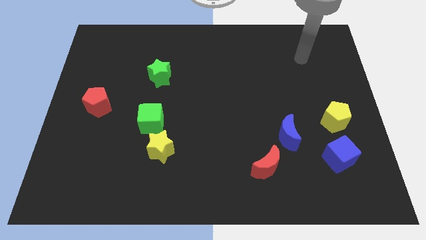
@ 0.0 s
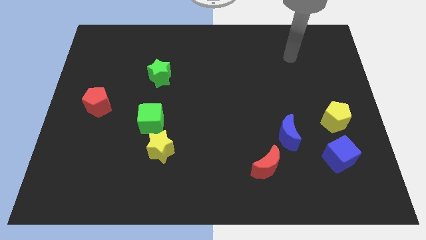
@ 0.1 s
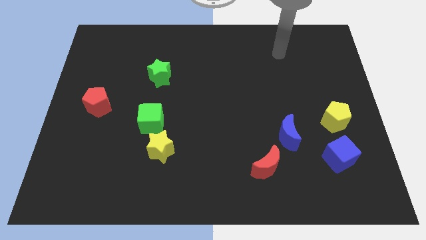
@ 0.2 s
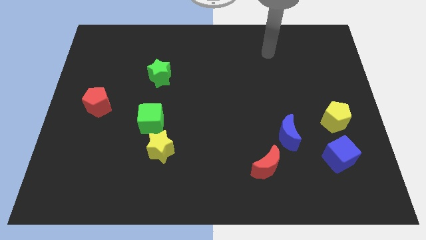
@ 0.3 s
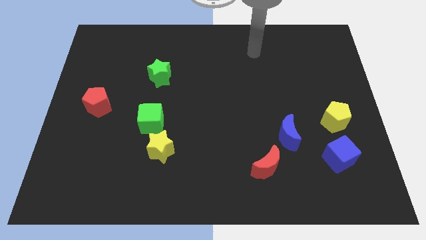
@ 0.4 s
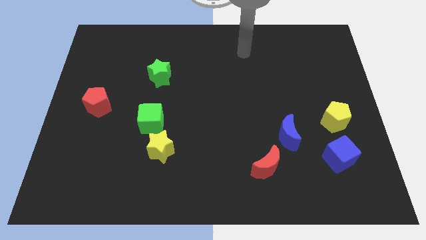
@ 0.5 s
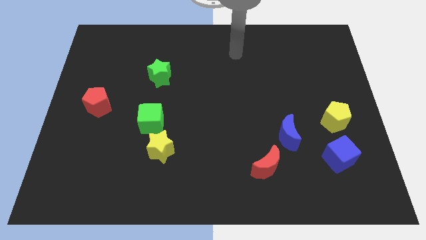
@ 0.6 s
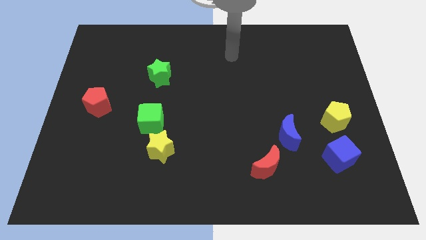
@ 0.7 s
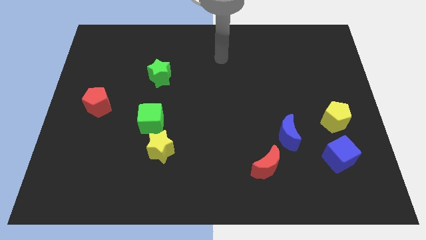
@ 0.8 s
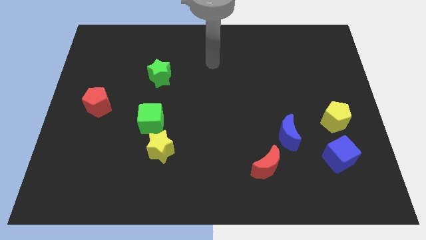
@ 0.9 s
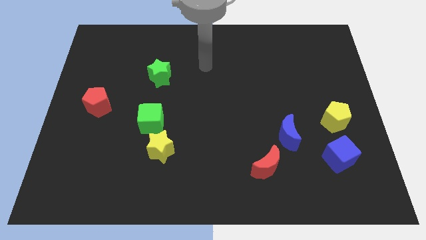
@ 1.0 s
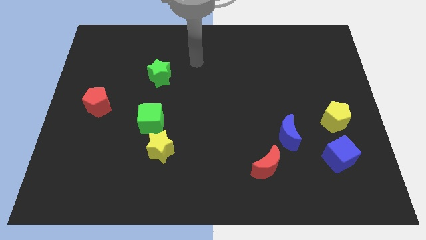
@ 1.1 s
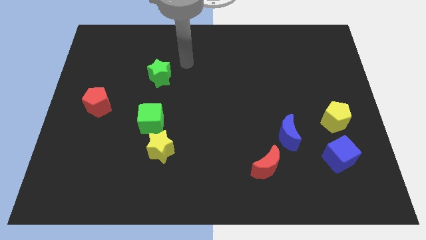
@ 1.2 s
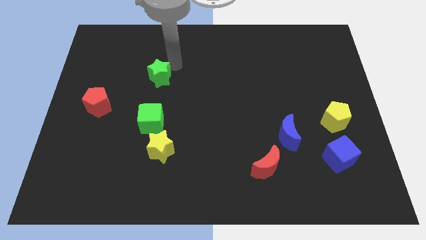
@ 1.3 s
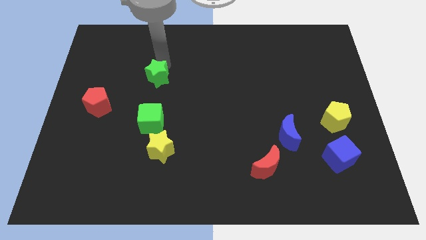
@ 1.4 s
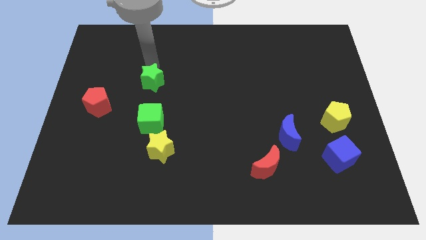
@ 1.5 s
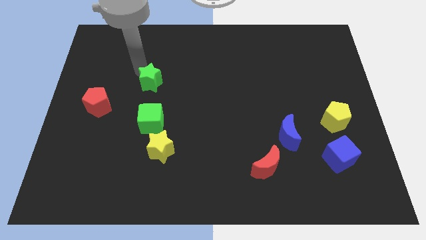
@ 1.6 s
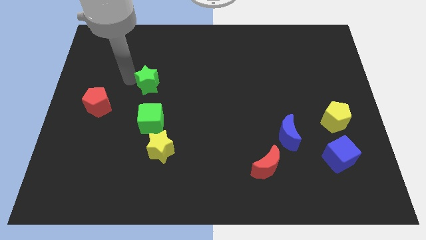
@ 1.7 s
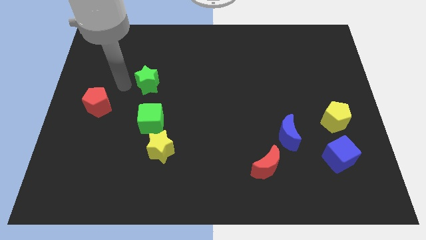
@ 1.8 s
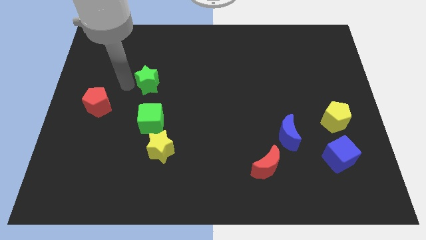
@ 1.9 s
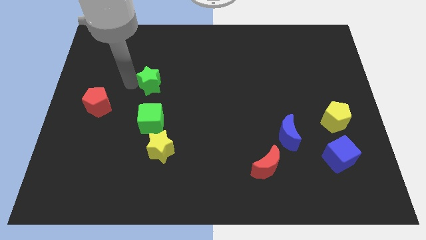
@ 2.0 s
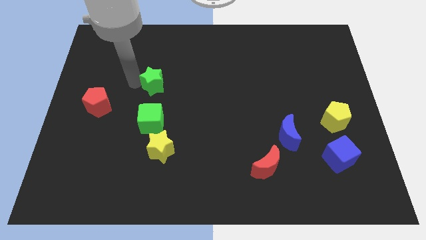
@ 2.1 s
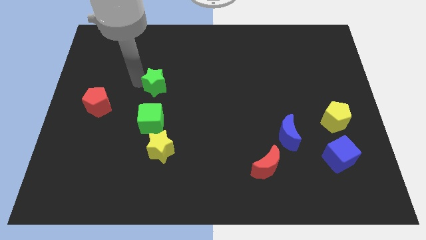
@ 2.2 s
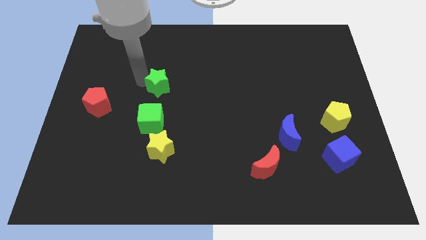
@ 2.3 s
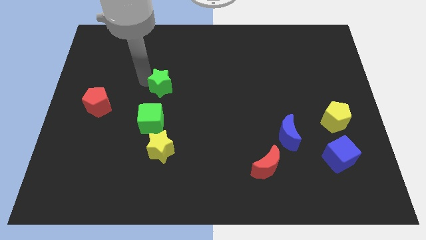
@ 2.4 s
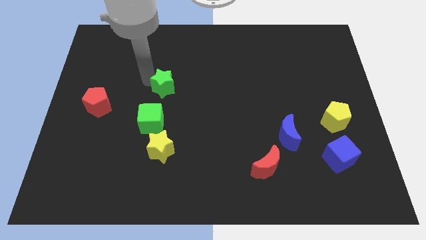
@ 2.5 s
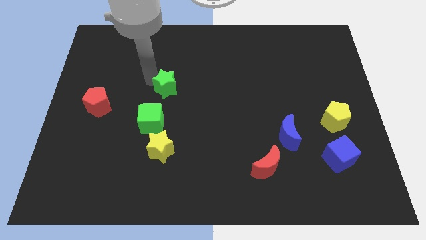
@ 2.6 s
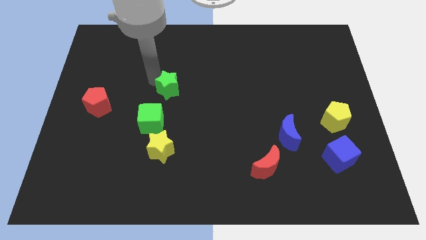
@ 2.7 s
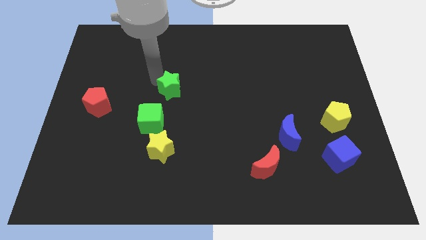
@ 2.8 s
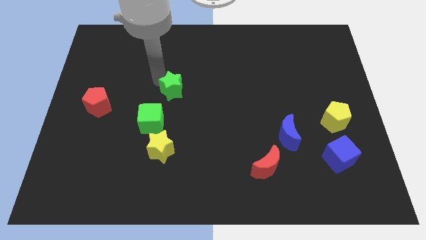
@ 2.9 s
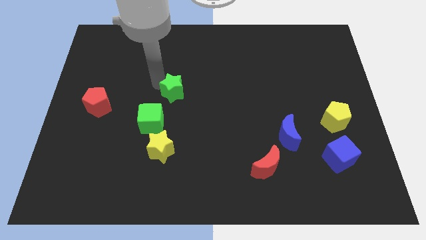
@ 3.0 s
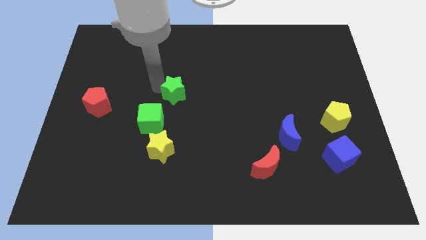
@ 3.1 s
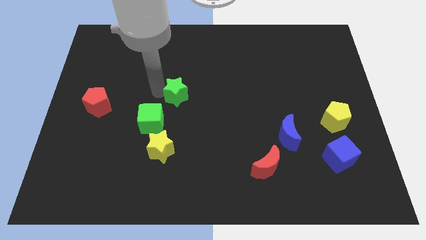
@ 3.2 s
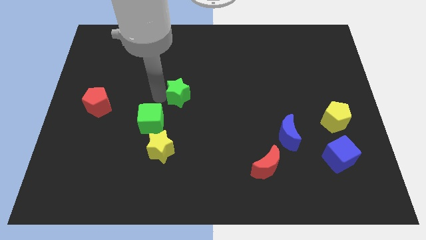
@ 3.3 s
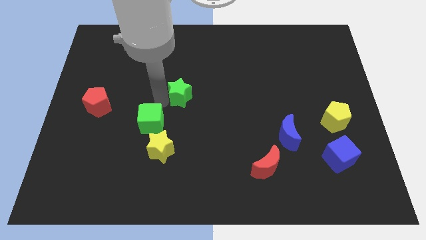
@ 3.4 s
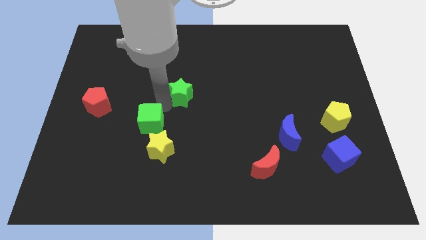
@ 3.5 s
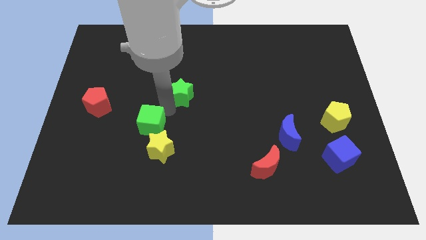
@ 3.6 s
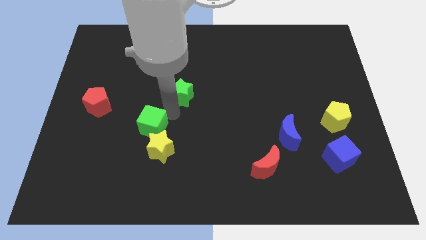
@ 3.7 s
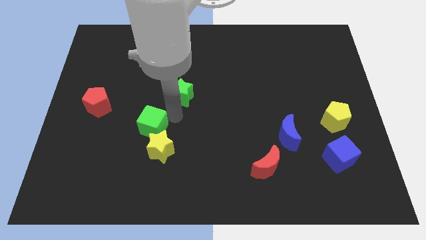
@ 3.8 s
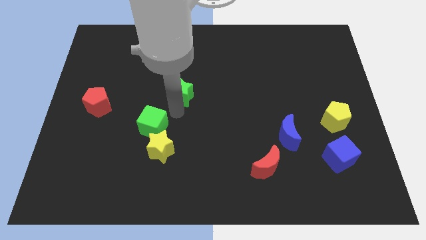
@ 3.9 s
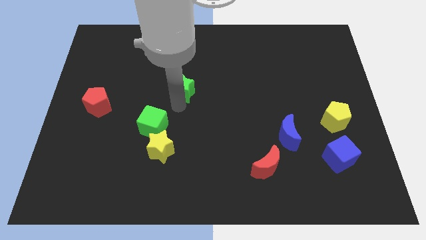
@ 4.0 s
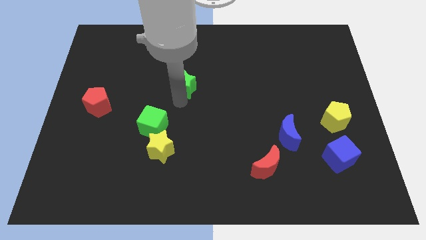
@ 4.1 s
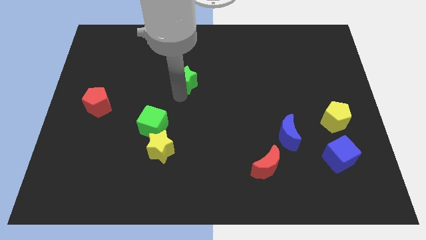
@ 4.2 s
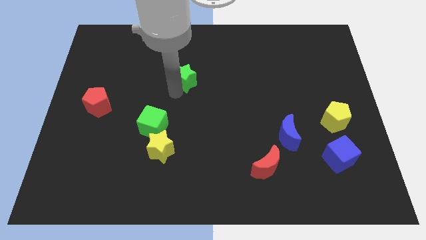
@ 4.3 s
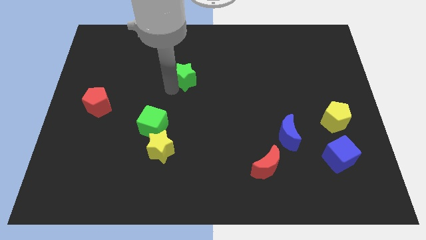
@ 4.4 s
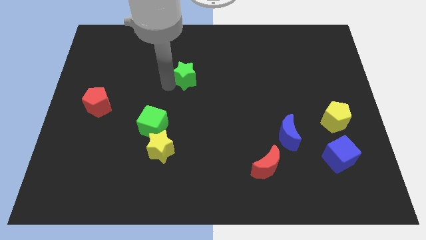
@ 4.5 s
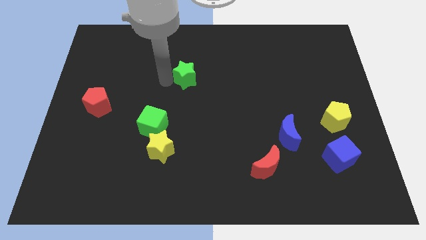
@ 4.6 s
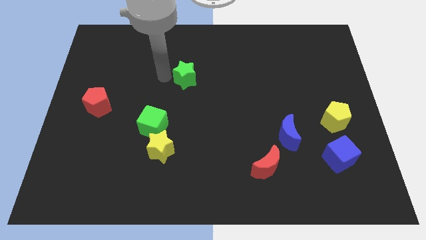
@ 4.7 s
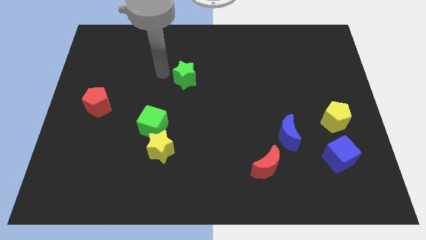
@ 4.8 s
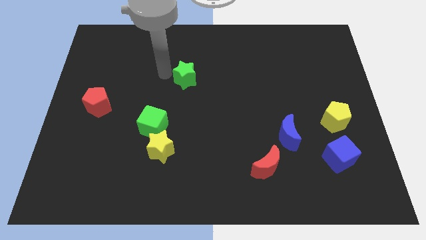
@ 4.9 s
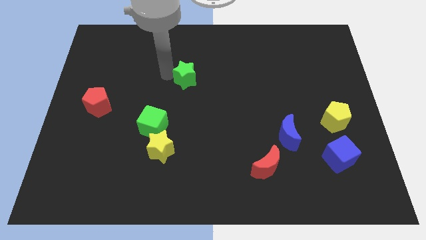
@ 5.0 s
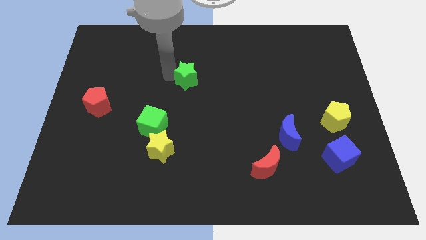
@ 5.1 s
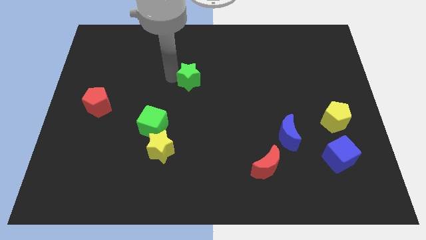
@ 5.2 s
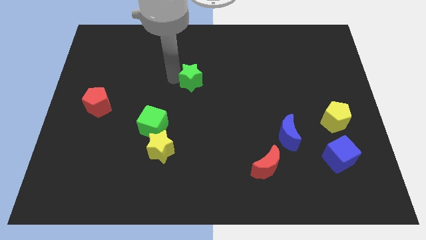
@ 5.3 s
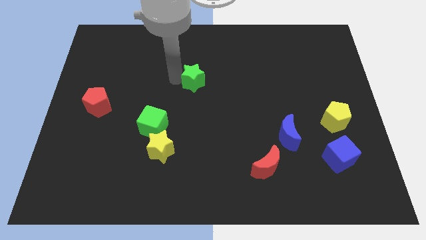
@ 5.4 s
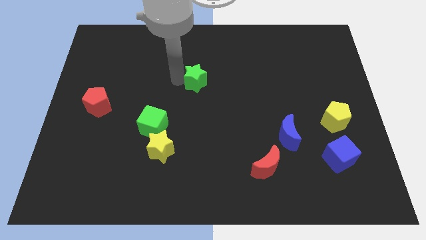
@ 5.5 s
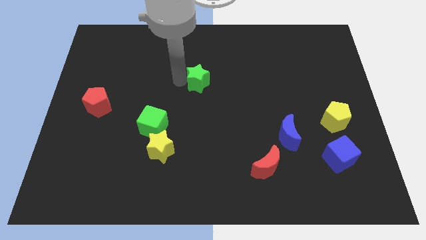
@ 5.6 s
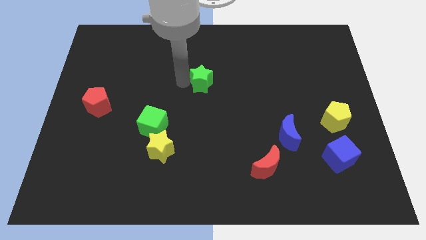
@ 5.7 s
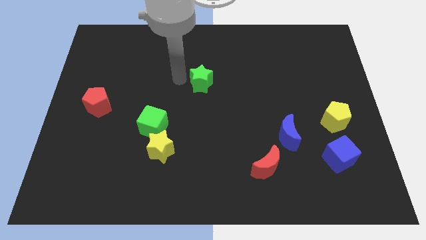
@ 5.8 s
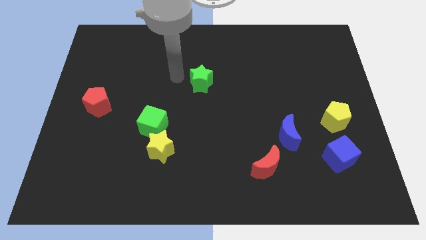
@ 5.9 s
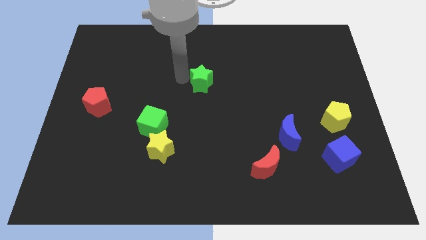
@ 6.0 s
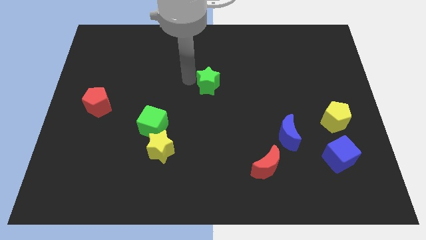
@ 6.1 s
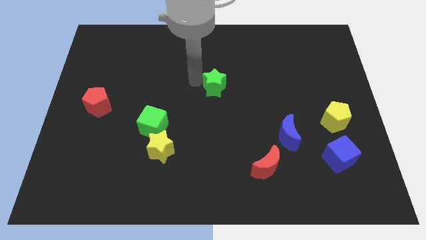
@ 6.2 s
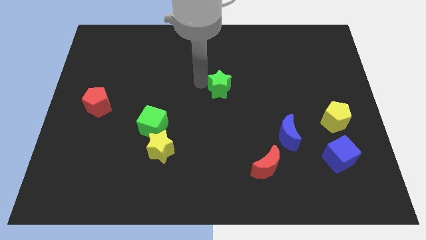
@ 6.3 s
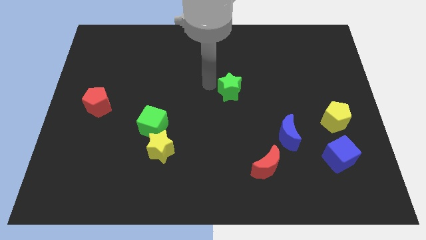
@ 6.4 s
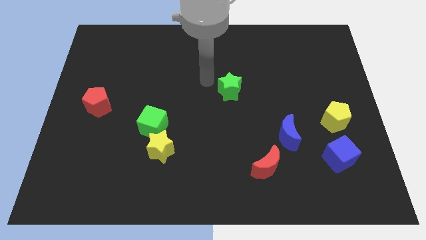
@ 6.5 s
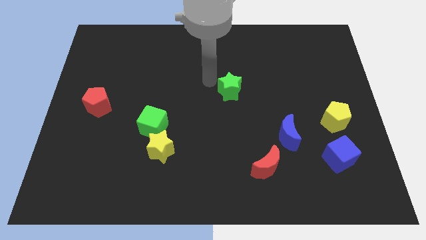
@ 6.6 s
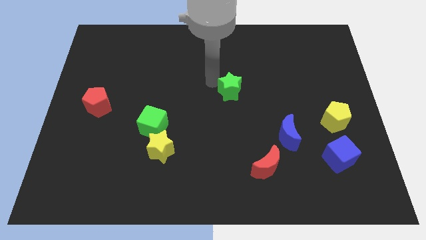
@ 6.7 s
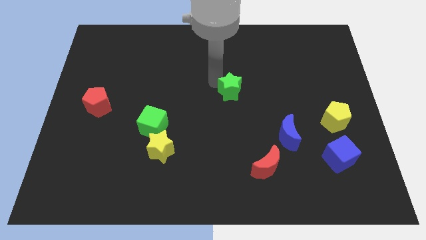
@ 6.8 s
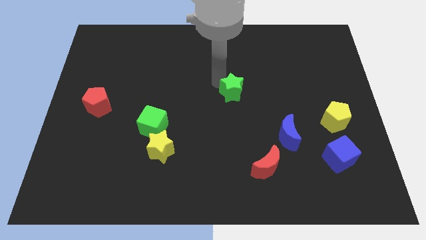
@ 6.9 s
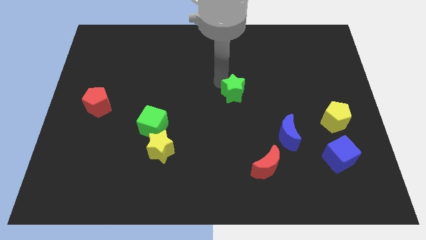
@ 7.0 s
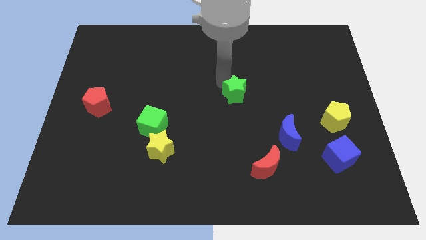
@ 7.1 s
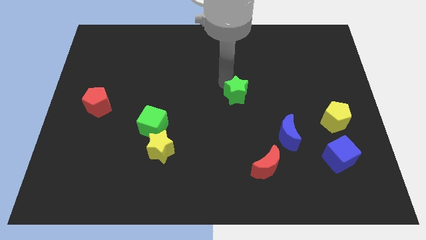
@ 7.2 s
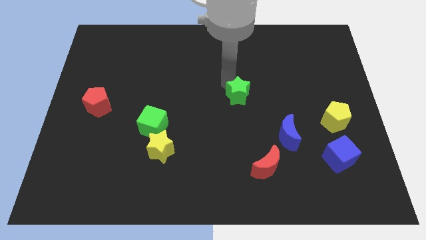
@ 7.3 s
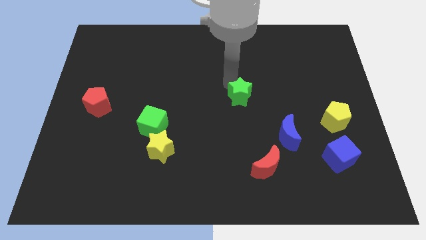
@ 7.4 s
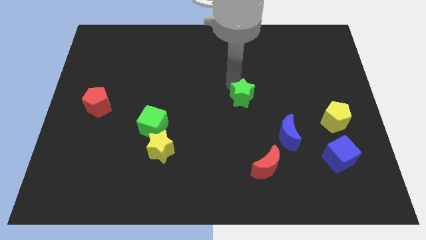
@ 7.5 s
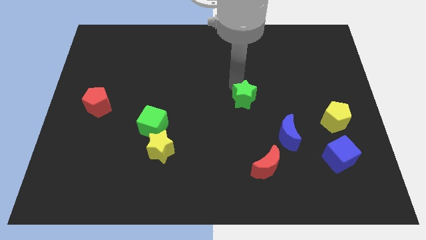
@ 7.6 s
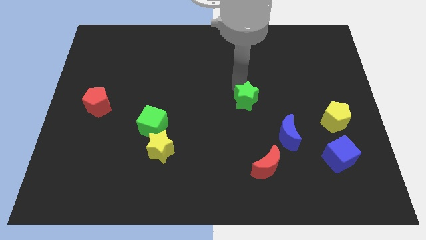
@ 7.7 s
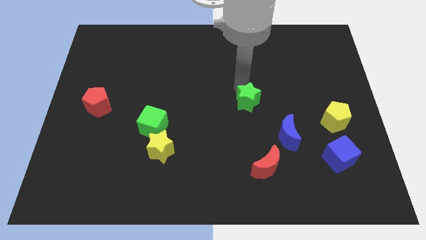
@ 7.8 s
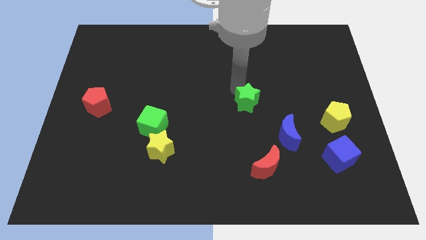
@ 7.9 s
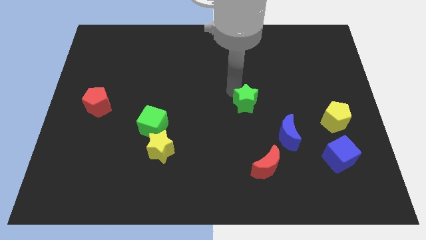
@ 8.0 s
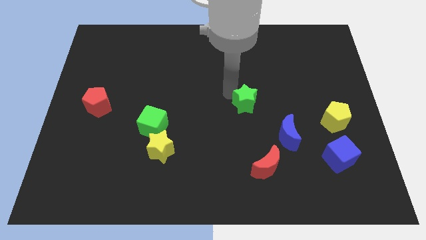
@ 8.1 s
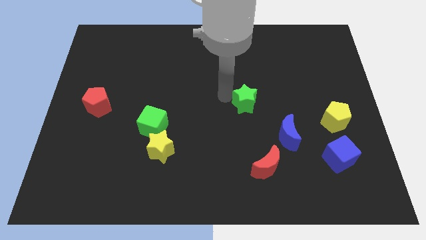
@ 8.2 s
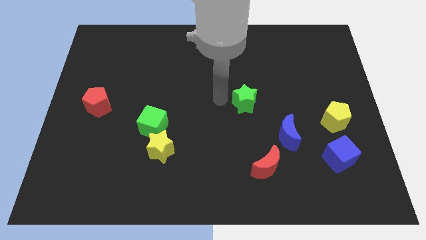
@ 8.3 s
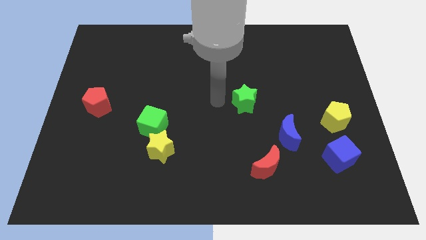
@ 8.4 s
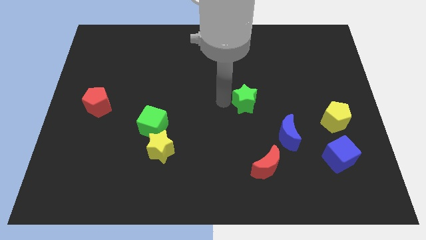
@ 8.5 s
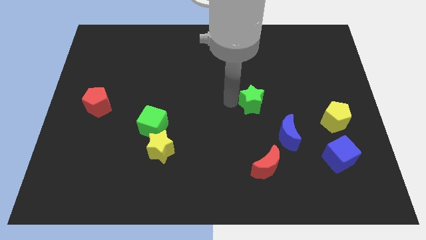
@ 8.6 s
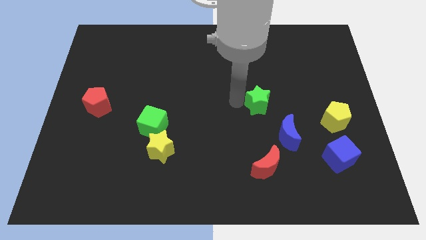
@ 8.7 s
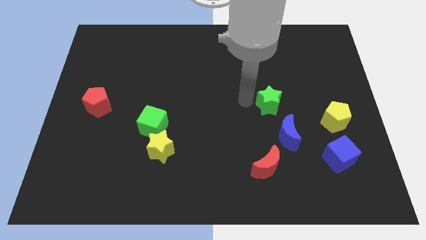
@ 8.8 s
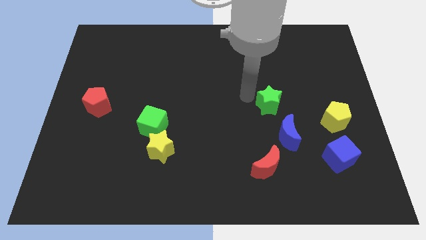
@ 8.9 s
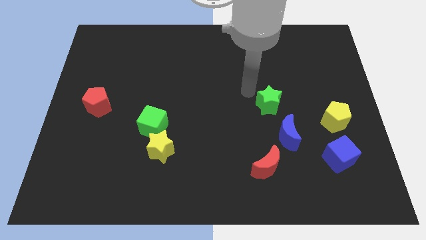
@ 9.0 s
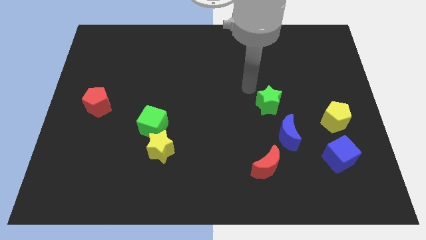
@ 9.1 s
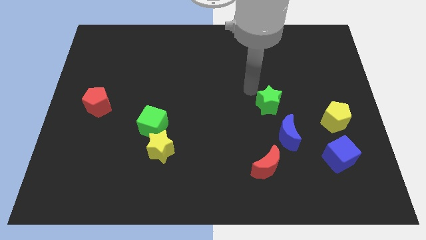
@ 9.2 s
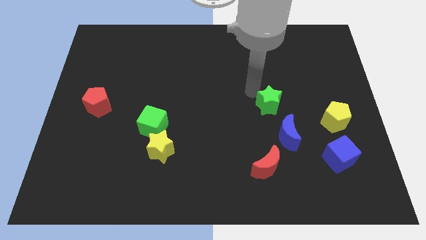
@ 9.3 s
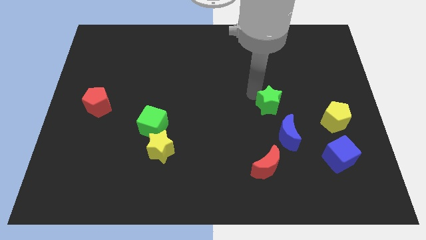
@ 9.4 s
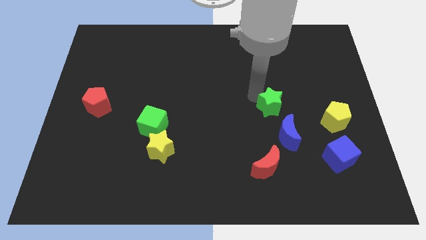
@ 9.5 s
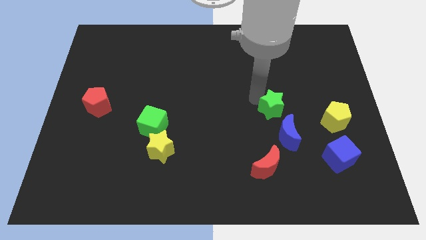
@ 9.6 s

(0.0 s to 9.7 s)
move the green star to the left side of the yellow pentagon
